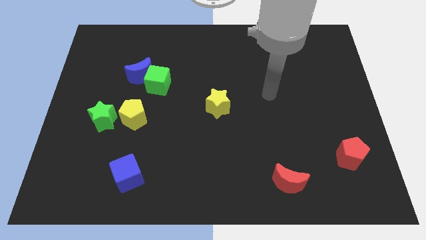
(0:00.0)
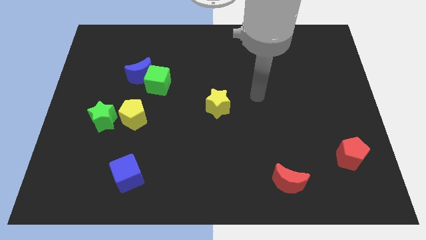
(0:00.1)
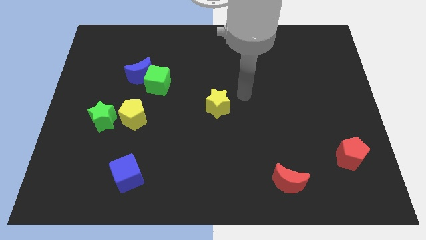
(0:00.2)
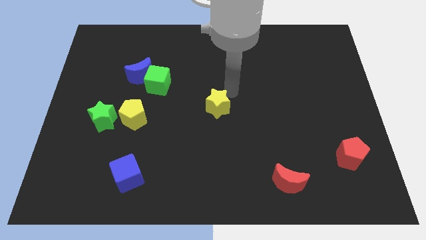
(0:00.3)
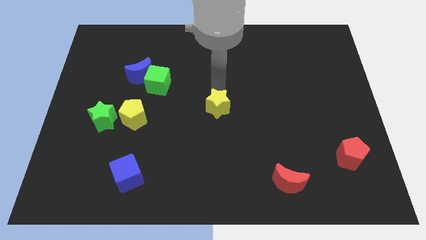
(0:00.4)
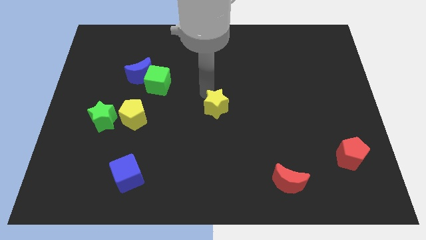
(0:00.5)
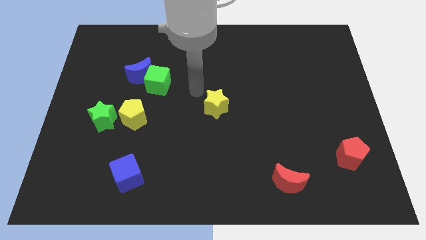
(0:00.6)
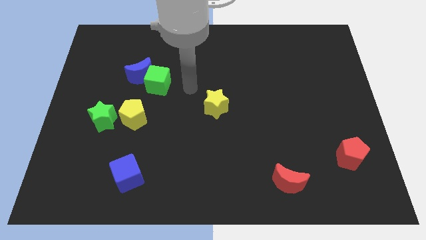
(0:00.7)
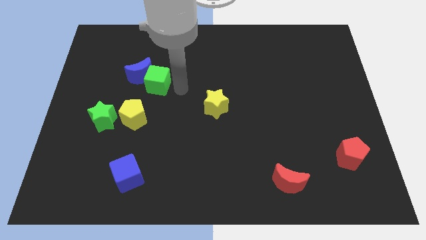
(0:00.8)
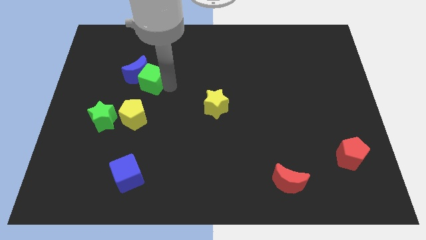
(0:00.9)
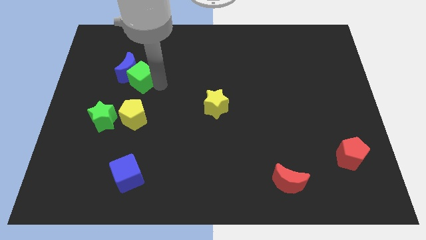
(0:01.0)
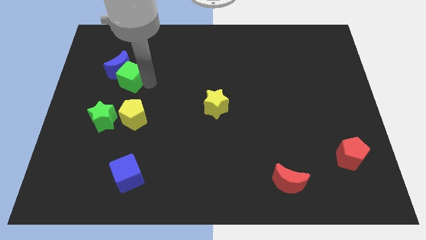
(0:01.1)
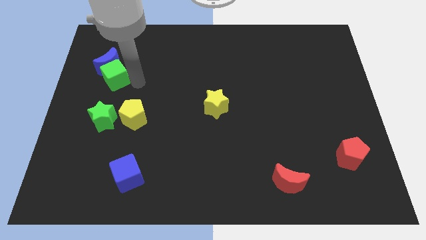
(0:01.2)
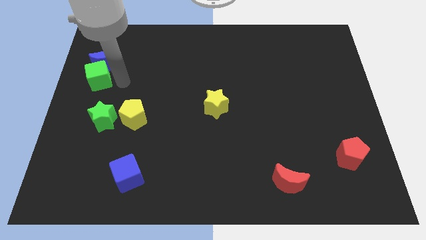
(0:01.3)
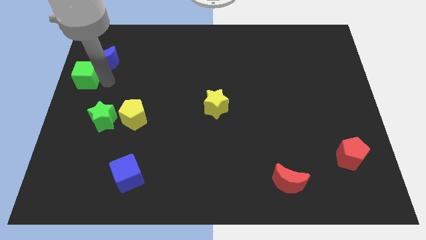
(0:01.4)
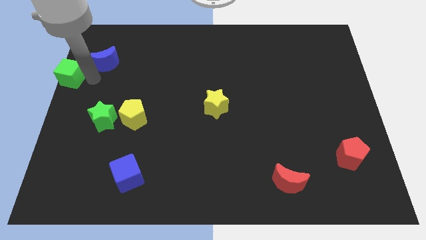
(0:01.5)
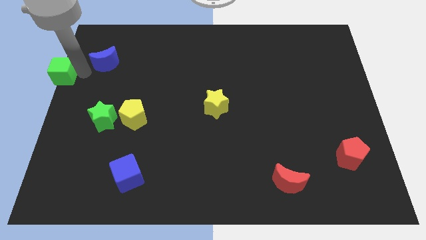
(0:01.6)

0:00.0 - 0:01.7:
separate the blue moon from the green cube

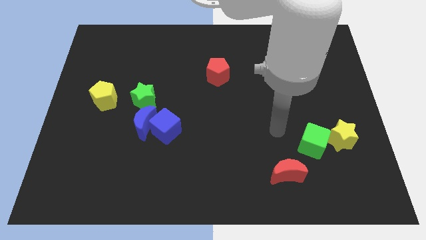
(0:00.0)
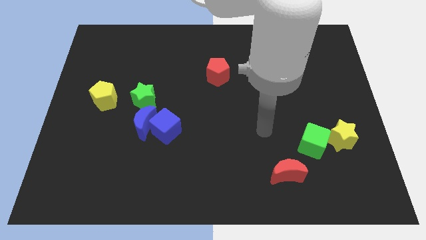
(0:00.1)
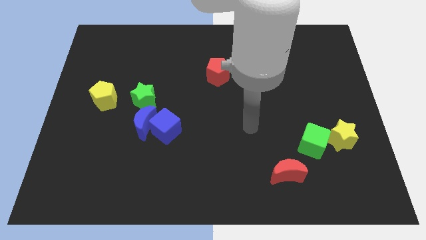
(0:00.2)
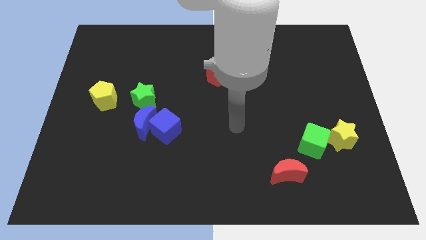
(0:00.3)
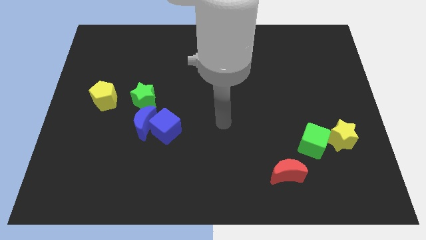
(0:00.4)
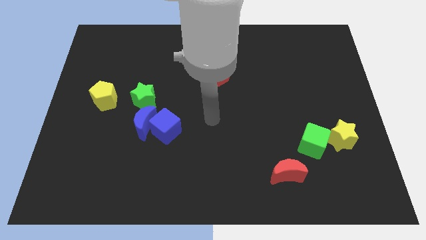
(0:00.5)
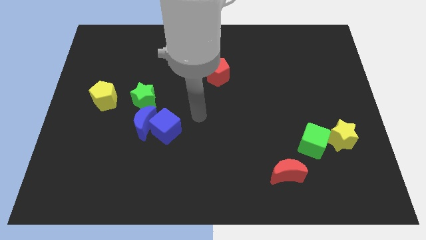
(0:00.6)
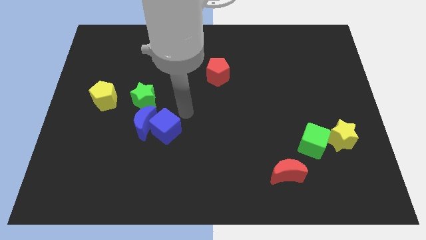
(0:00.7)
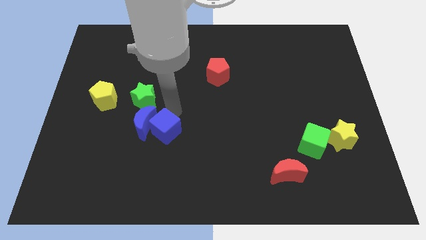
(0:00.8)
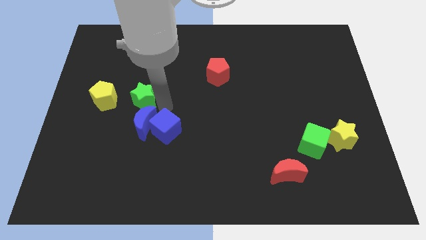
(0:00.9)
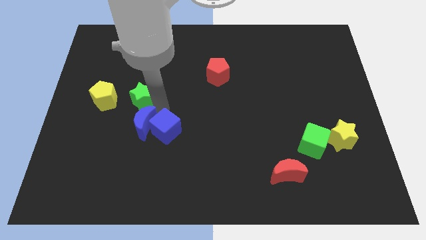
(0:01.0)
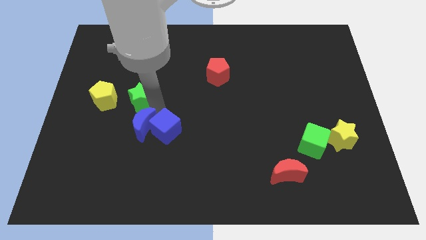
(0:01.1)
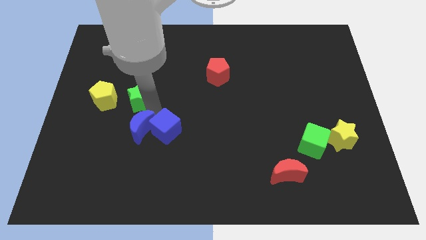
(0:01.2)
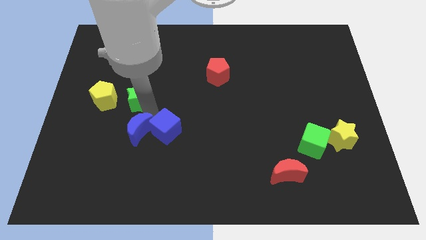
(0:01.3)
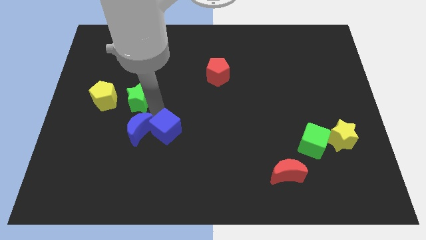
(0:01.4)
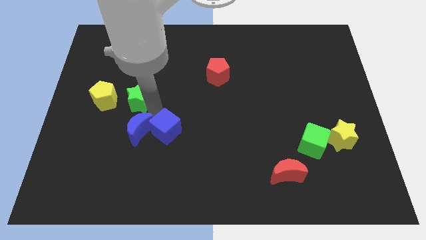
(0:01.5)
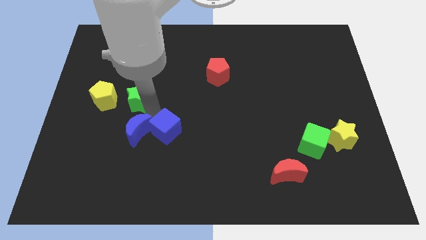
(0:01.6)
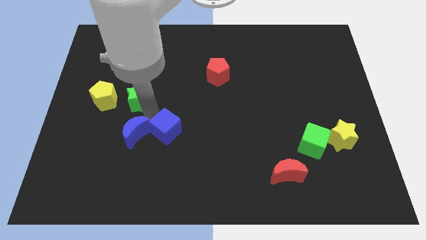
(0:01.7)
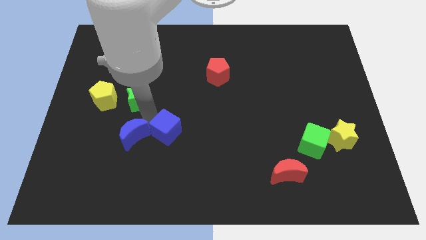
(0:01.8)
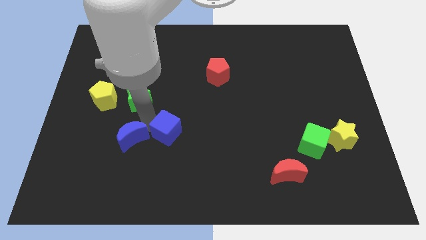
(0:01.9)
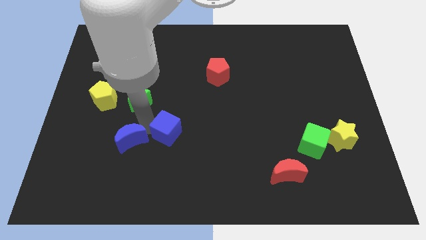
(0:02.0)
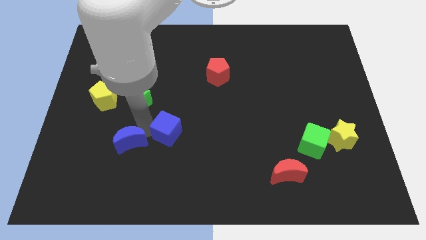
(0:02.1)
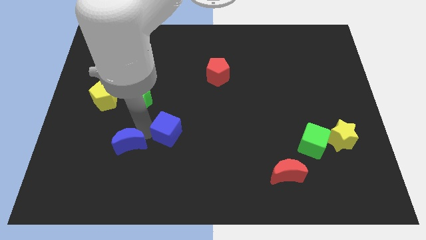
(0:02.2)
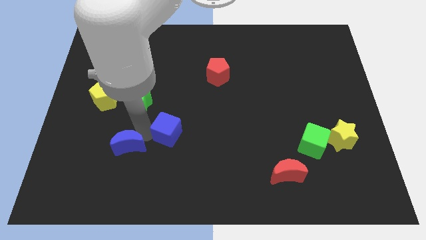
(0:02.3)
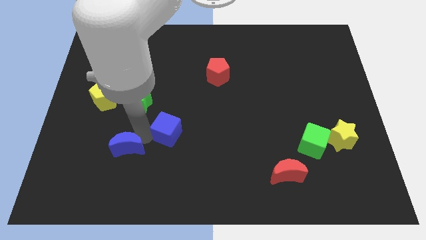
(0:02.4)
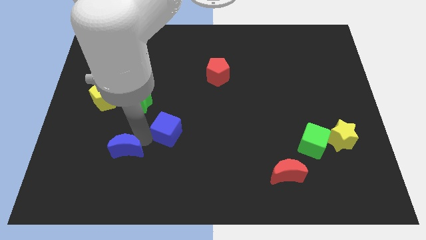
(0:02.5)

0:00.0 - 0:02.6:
pull the blue moon apart from the blue cube and green star

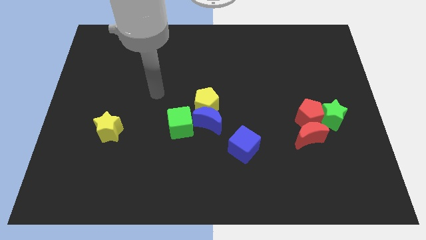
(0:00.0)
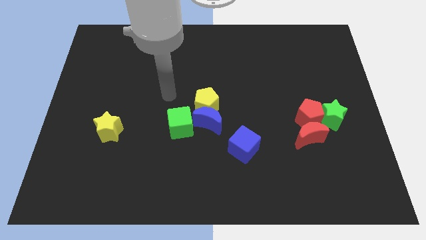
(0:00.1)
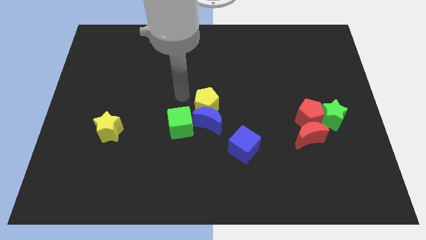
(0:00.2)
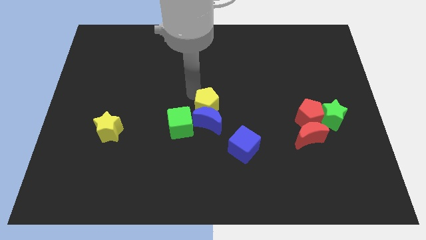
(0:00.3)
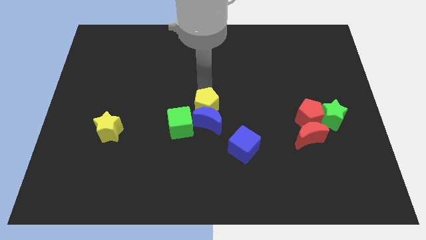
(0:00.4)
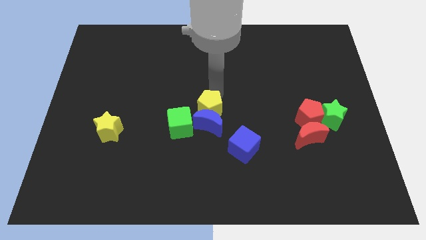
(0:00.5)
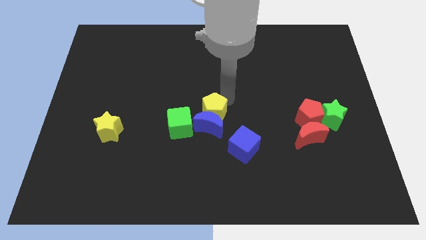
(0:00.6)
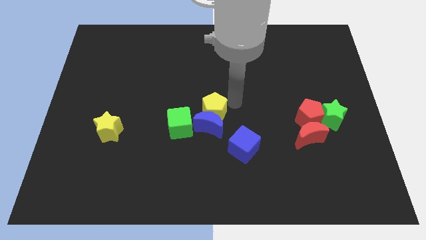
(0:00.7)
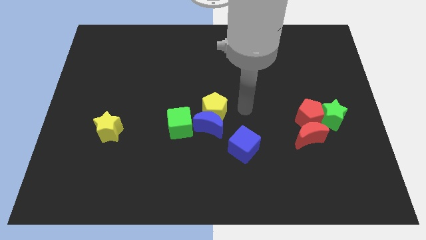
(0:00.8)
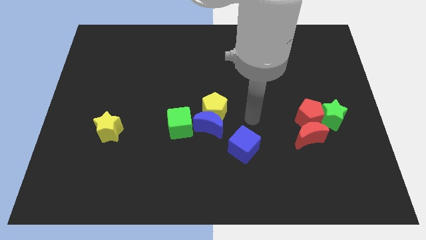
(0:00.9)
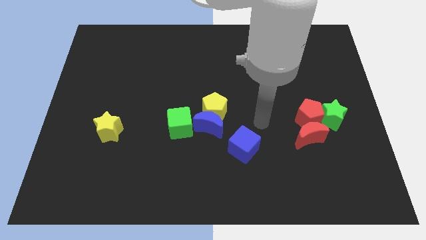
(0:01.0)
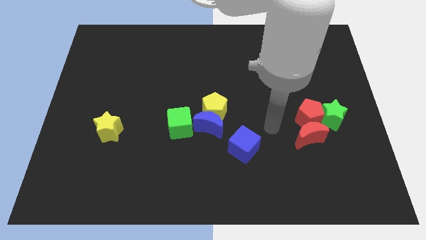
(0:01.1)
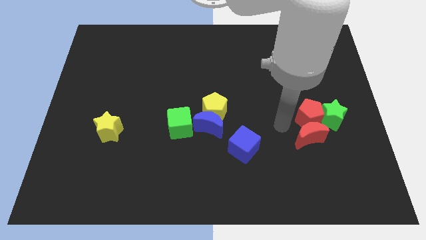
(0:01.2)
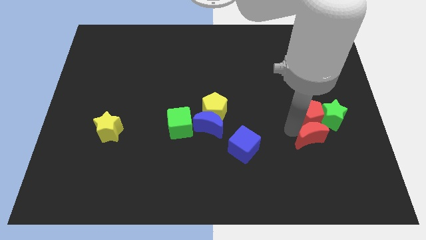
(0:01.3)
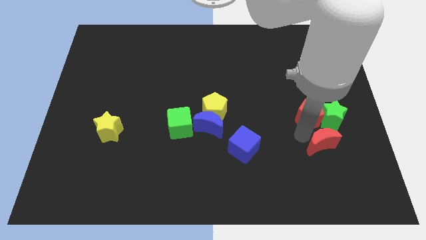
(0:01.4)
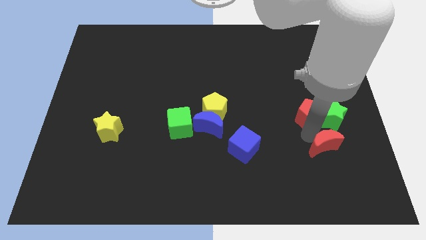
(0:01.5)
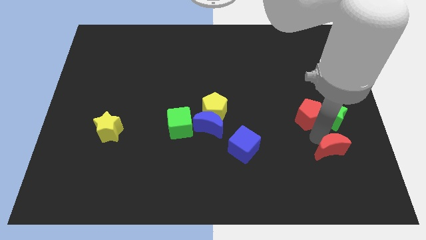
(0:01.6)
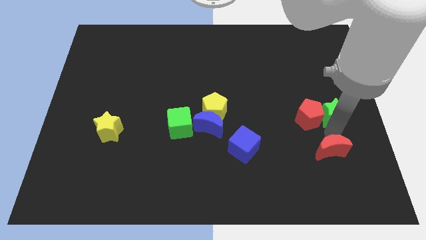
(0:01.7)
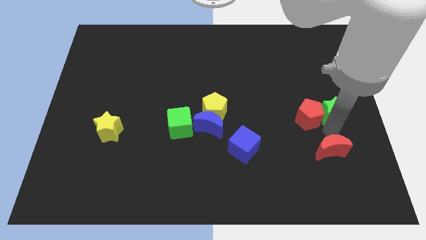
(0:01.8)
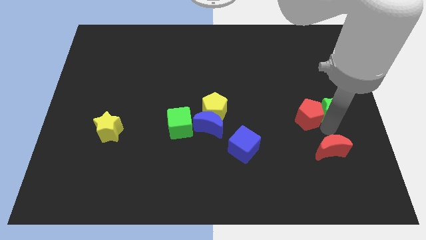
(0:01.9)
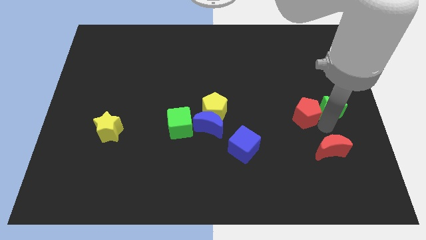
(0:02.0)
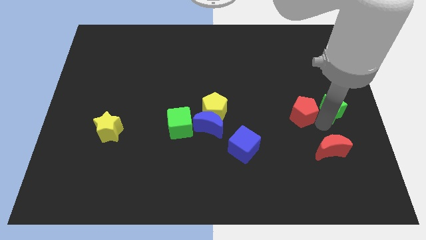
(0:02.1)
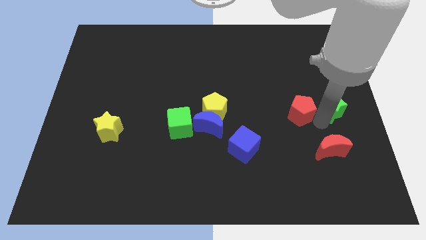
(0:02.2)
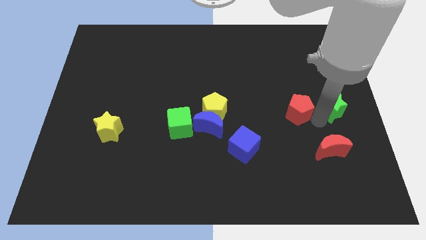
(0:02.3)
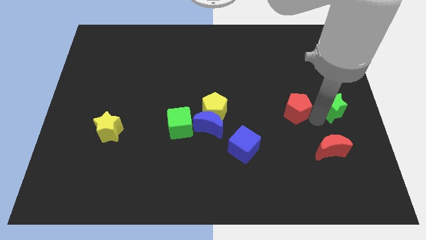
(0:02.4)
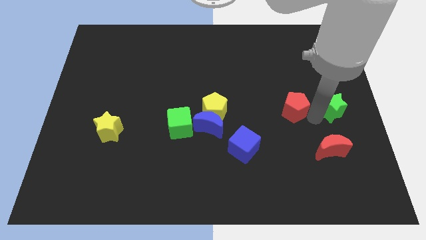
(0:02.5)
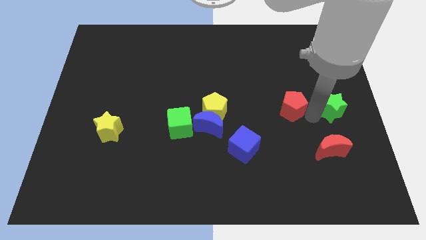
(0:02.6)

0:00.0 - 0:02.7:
move the red pentagon away from the red moon and green star

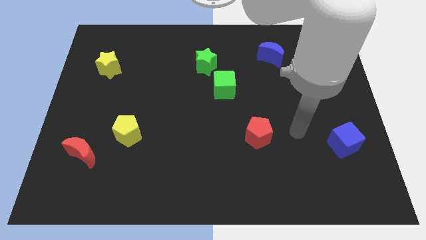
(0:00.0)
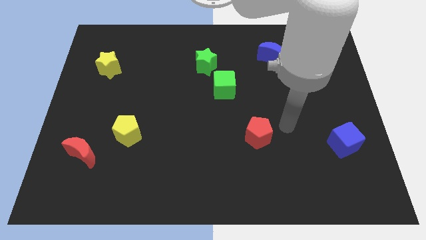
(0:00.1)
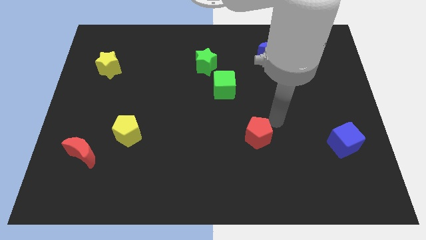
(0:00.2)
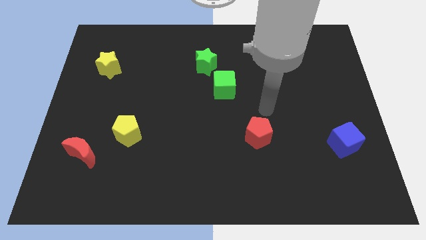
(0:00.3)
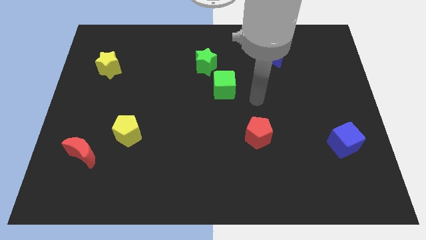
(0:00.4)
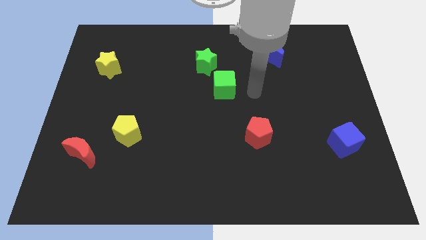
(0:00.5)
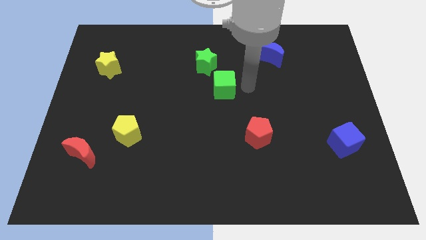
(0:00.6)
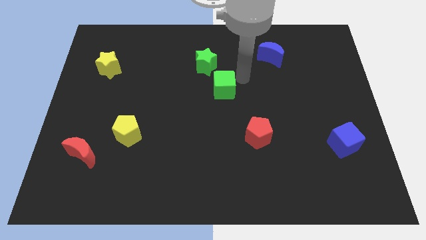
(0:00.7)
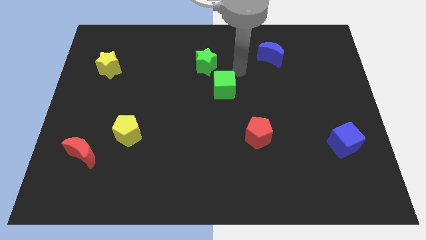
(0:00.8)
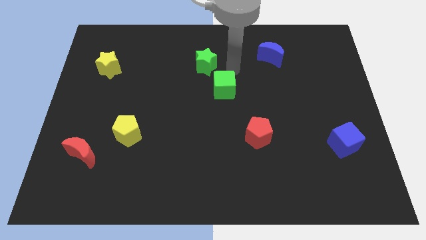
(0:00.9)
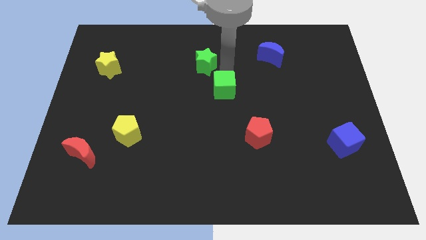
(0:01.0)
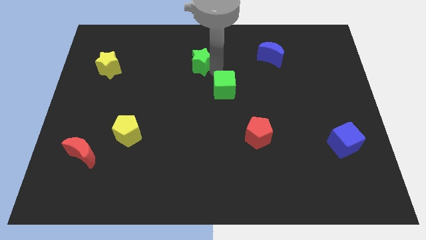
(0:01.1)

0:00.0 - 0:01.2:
move the green cube away from the green star

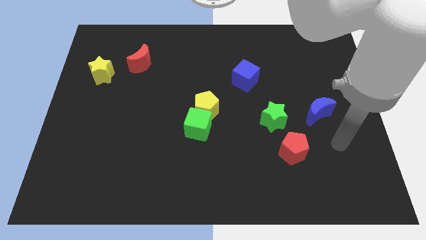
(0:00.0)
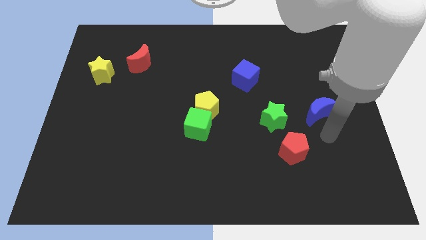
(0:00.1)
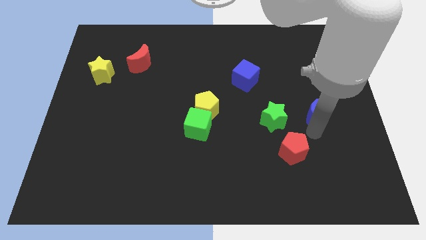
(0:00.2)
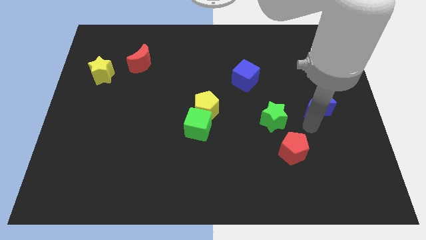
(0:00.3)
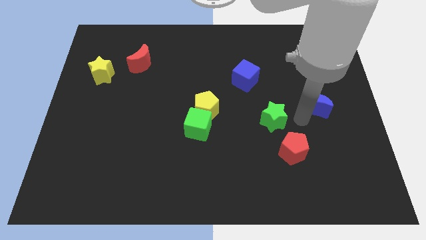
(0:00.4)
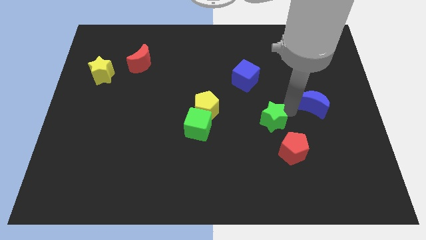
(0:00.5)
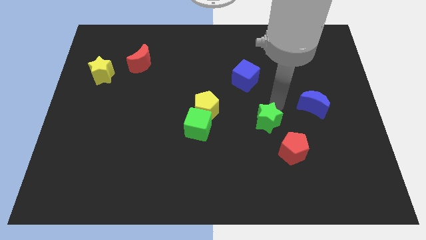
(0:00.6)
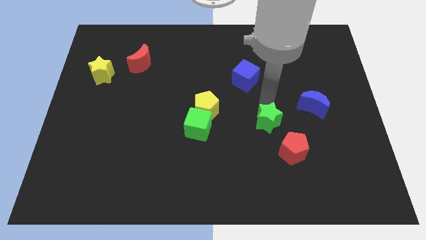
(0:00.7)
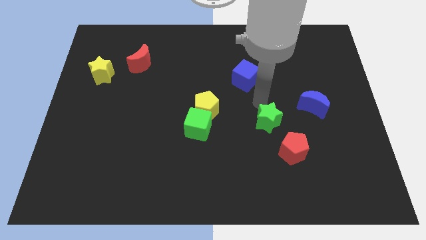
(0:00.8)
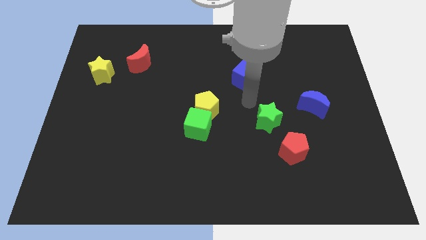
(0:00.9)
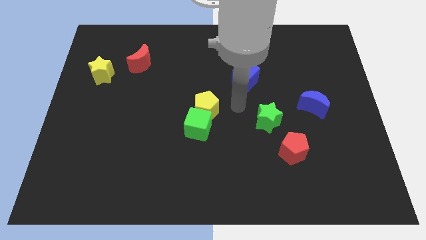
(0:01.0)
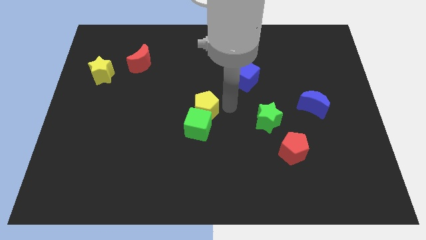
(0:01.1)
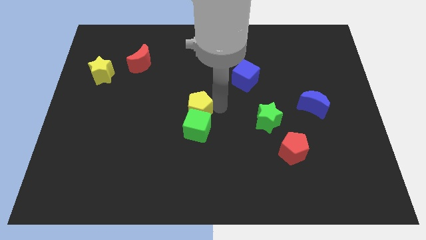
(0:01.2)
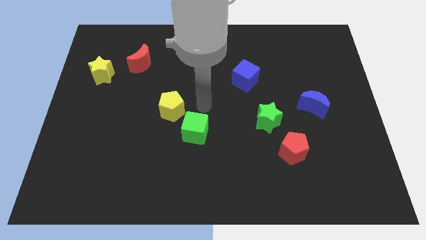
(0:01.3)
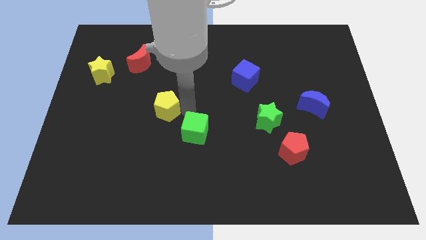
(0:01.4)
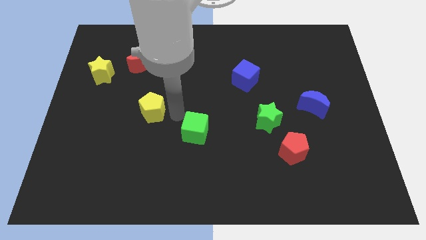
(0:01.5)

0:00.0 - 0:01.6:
separate the green cube from the yellow pentagon
